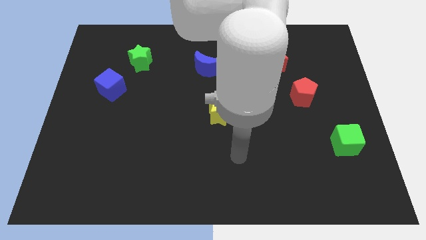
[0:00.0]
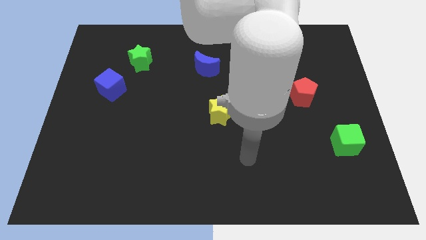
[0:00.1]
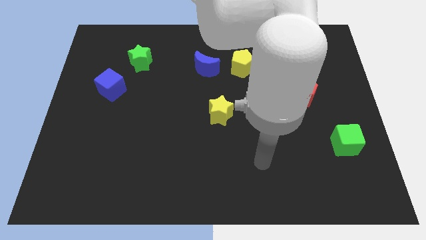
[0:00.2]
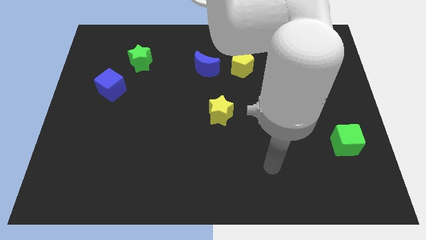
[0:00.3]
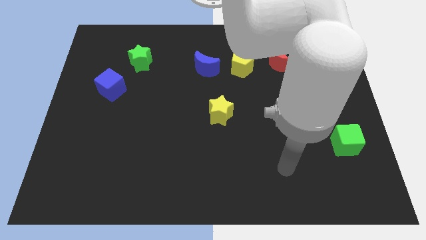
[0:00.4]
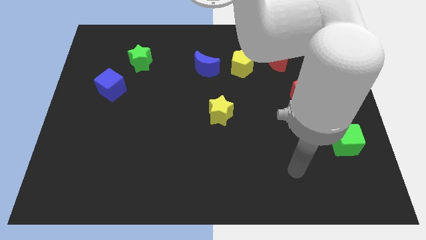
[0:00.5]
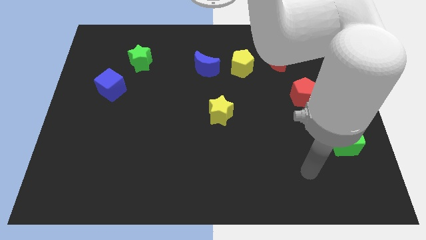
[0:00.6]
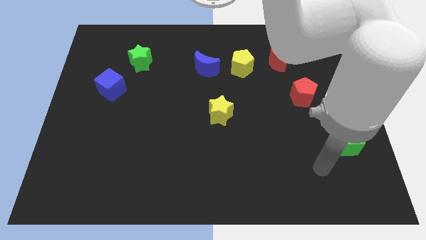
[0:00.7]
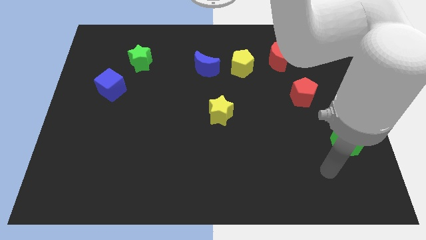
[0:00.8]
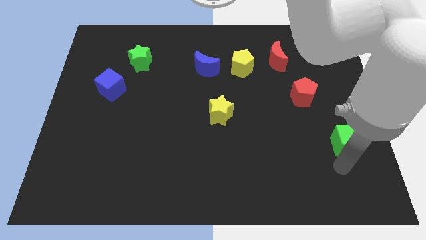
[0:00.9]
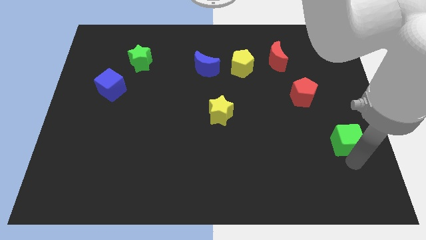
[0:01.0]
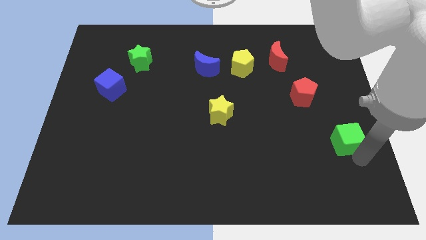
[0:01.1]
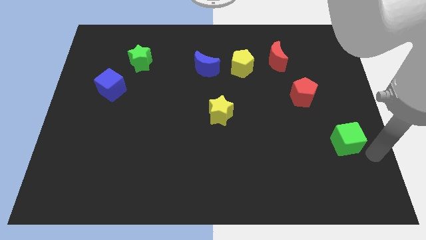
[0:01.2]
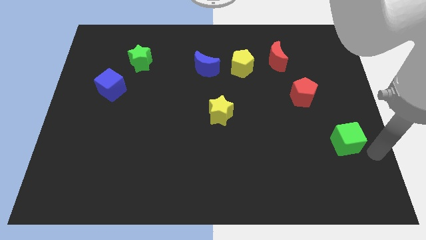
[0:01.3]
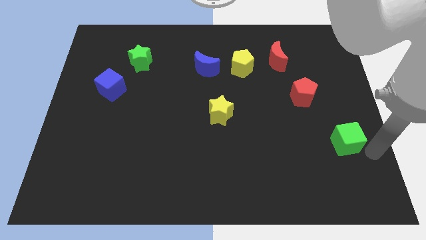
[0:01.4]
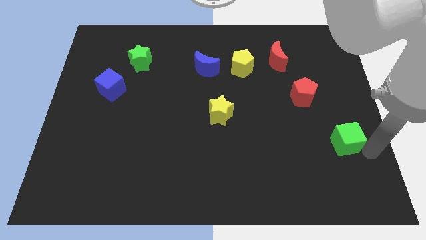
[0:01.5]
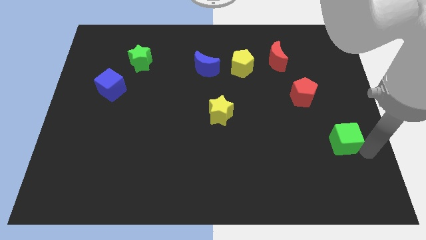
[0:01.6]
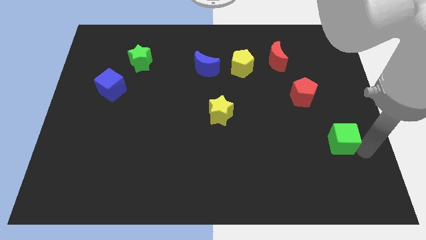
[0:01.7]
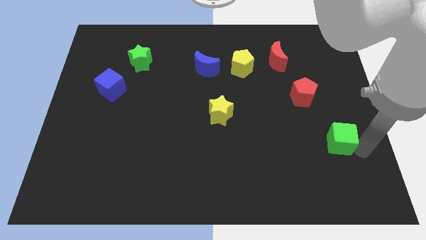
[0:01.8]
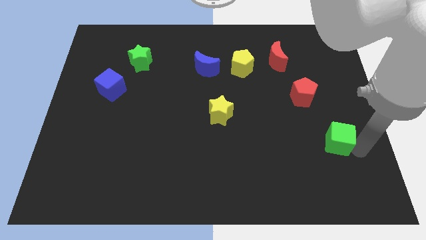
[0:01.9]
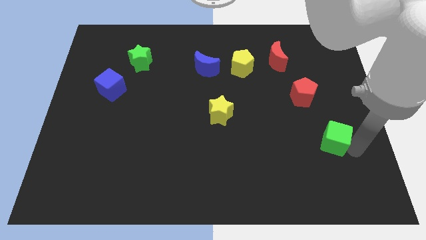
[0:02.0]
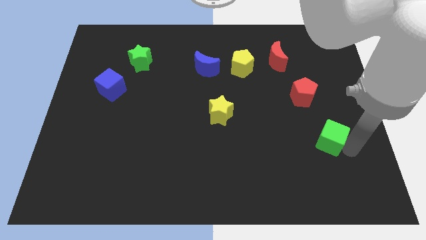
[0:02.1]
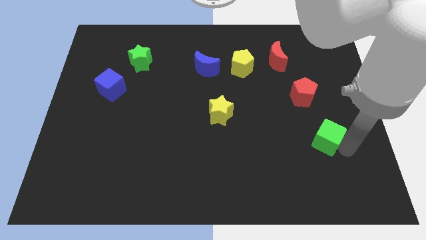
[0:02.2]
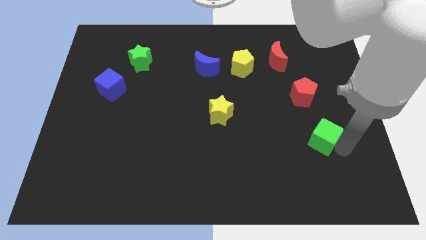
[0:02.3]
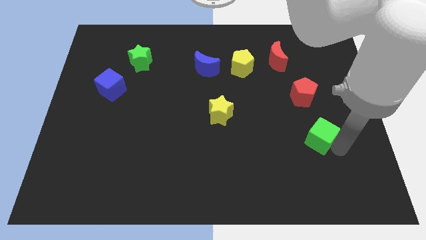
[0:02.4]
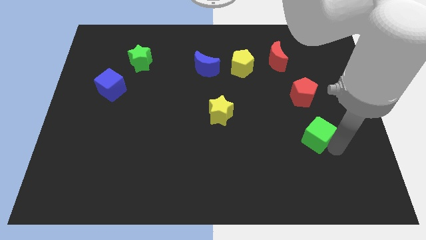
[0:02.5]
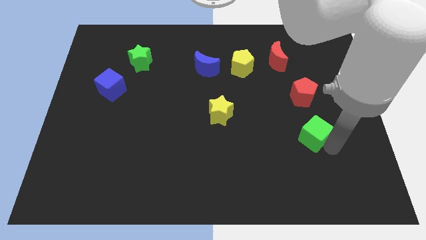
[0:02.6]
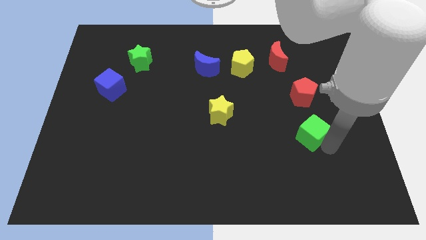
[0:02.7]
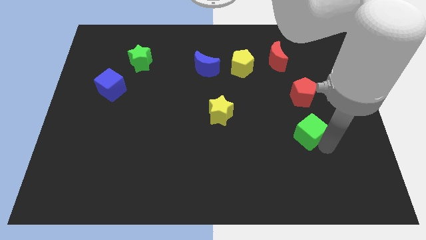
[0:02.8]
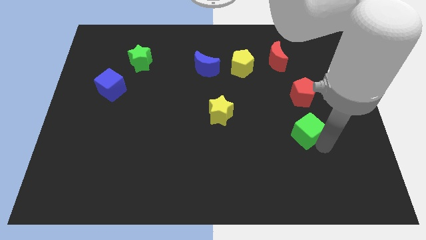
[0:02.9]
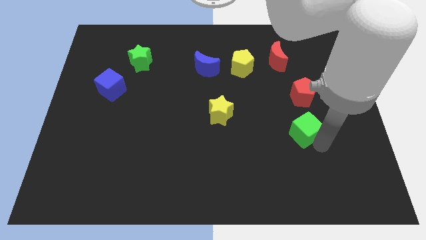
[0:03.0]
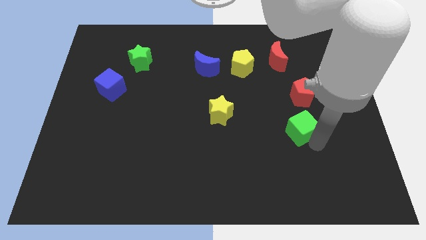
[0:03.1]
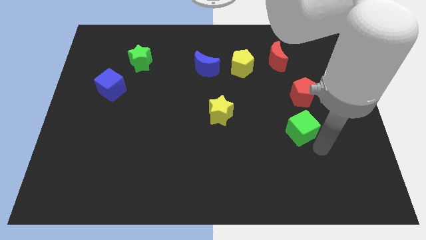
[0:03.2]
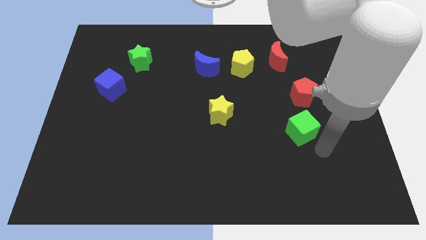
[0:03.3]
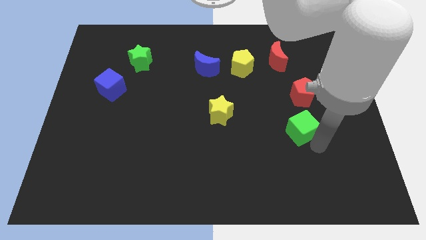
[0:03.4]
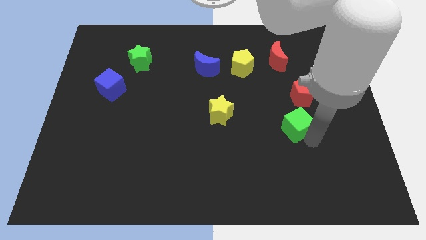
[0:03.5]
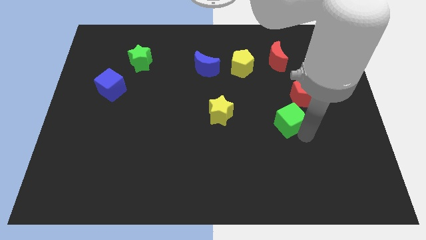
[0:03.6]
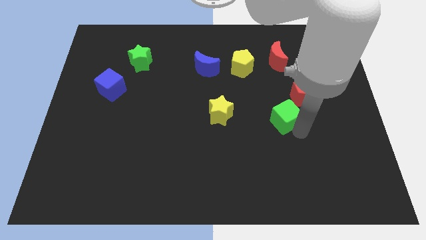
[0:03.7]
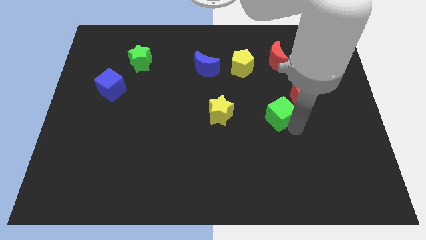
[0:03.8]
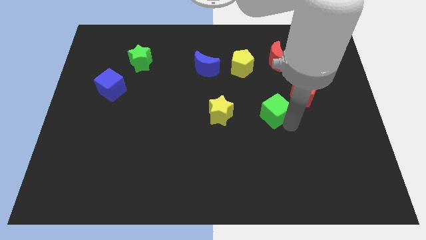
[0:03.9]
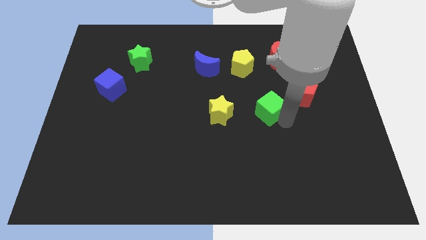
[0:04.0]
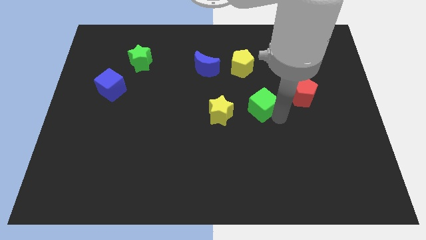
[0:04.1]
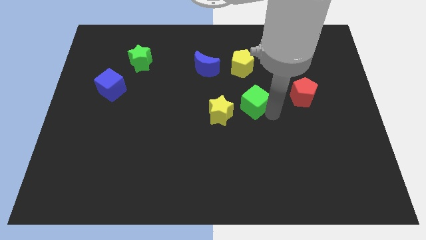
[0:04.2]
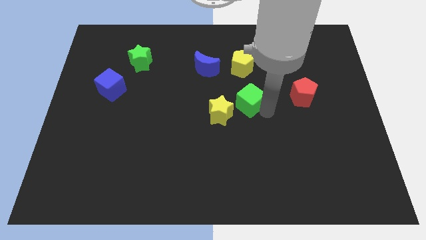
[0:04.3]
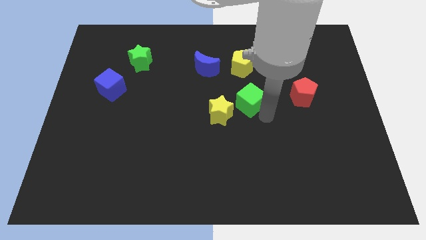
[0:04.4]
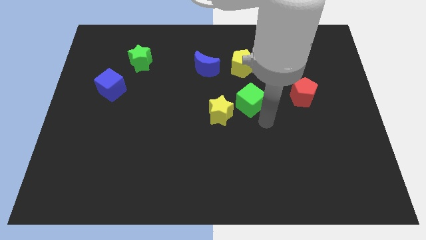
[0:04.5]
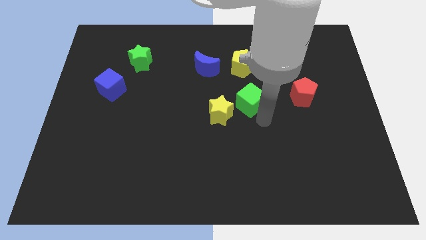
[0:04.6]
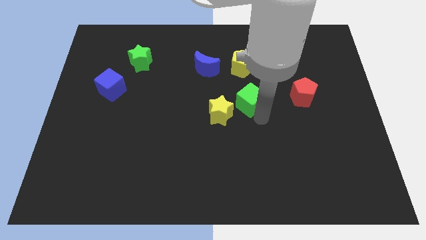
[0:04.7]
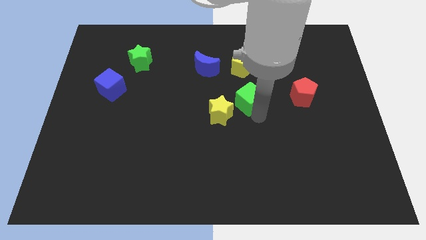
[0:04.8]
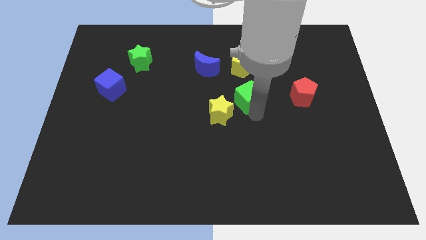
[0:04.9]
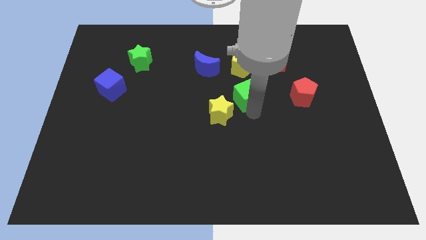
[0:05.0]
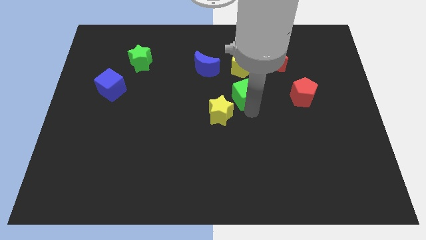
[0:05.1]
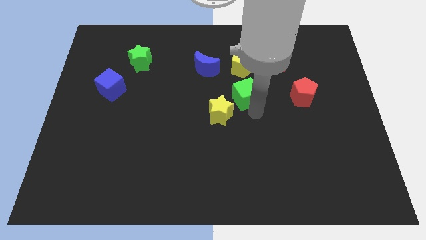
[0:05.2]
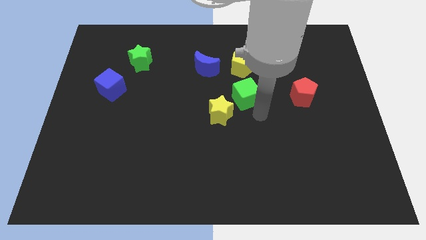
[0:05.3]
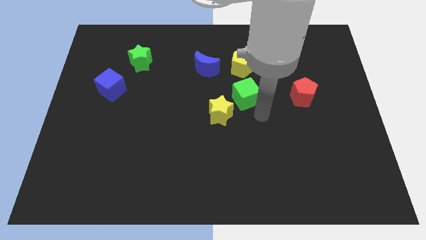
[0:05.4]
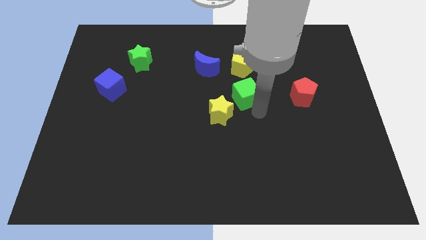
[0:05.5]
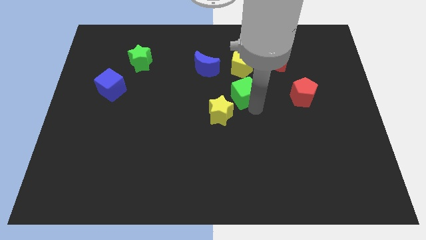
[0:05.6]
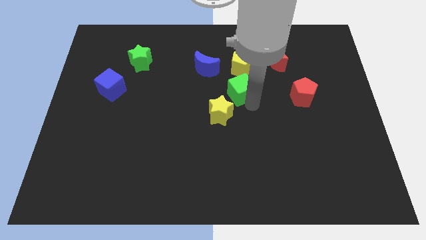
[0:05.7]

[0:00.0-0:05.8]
push the green cube above the yellow star

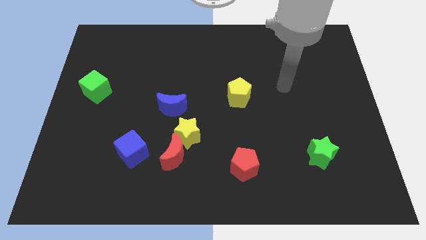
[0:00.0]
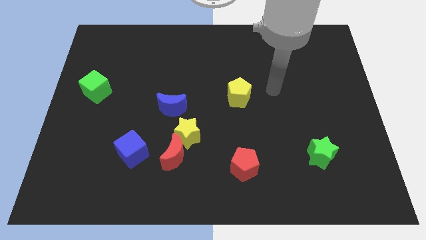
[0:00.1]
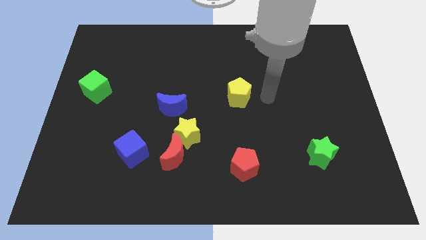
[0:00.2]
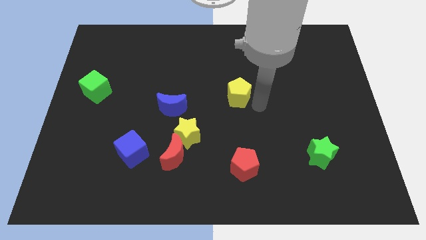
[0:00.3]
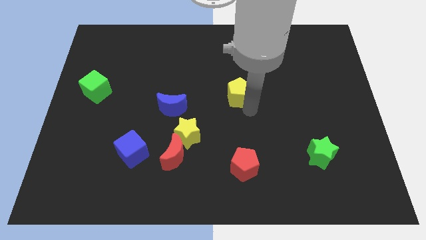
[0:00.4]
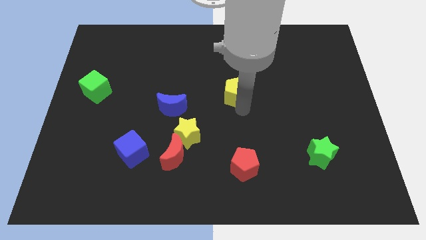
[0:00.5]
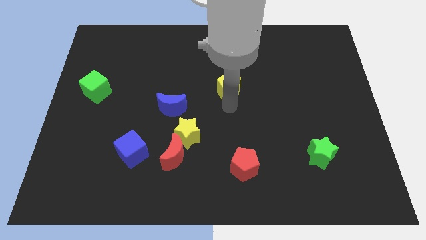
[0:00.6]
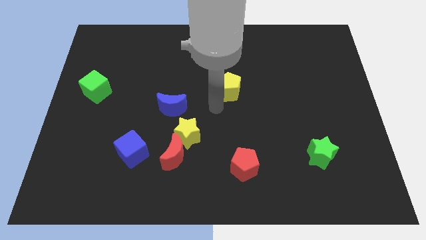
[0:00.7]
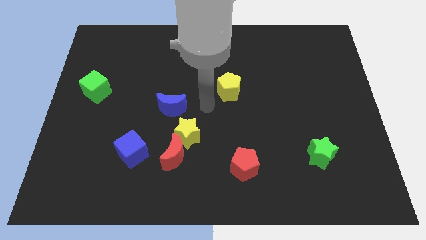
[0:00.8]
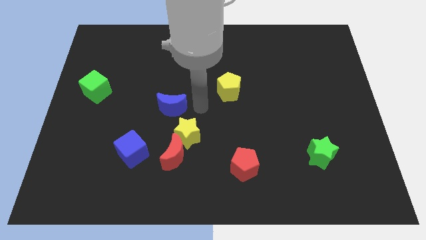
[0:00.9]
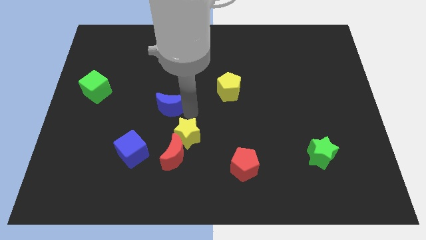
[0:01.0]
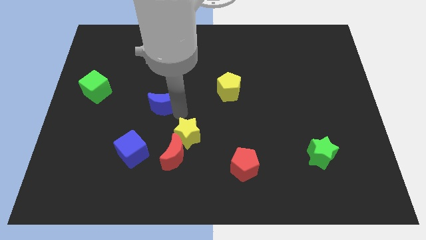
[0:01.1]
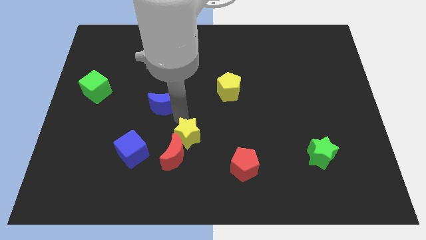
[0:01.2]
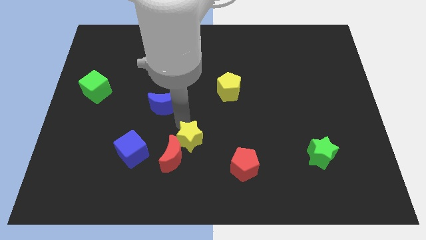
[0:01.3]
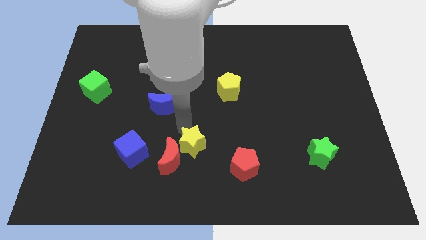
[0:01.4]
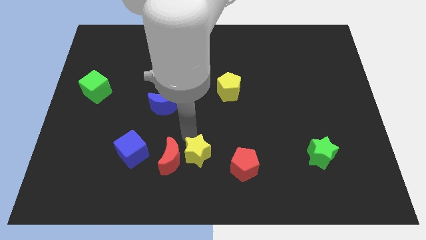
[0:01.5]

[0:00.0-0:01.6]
slide the yellow star to the bottom right of the red moon
